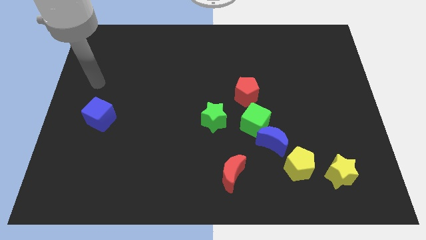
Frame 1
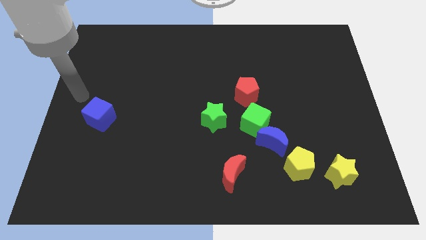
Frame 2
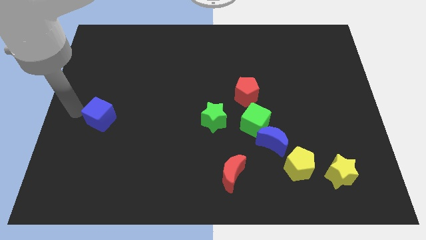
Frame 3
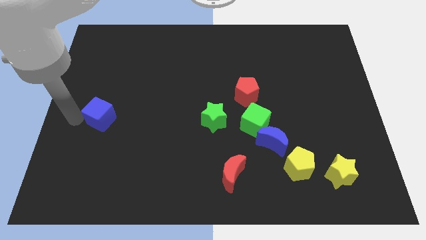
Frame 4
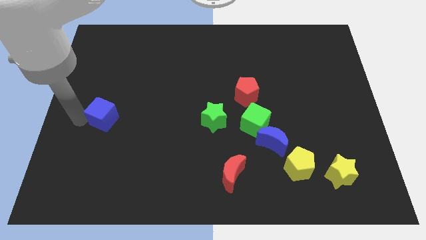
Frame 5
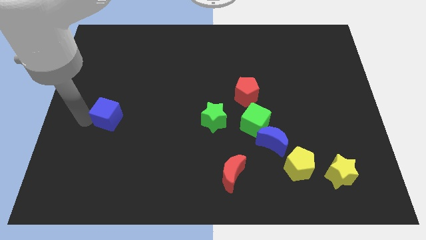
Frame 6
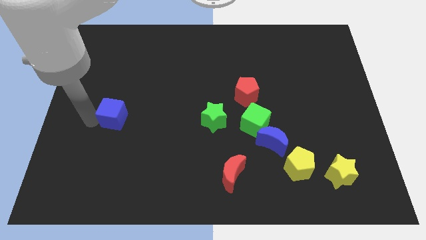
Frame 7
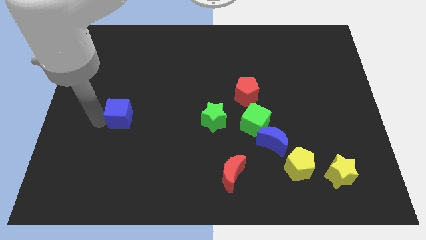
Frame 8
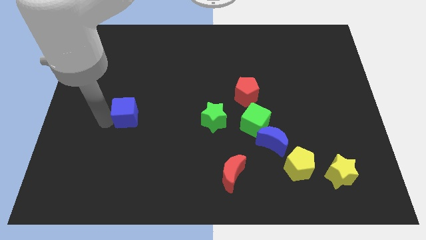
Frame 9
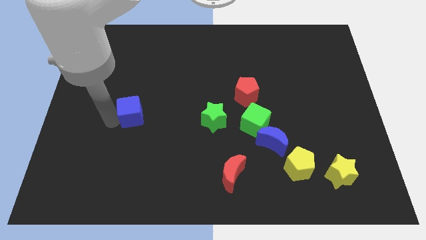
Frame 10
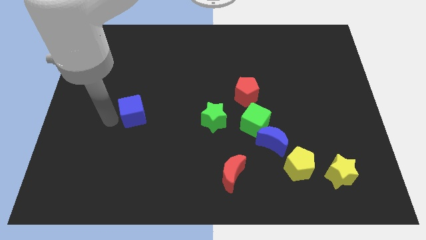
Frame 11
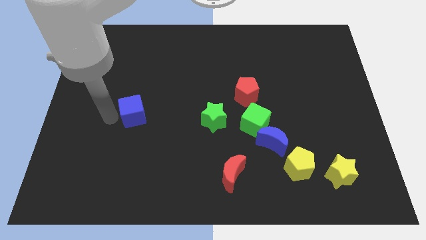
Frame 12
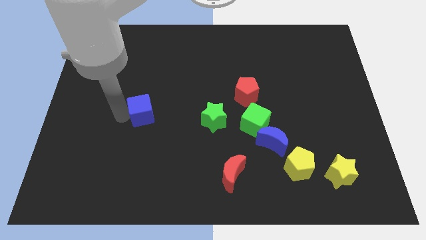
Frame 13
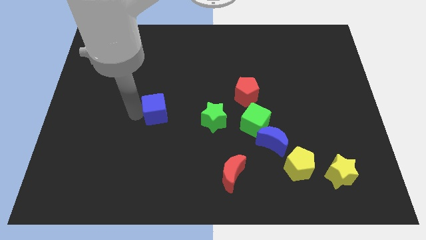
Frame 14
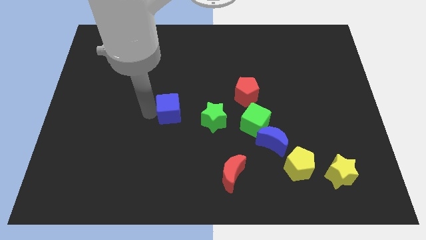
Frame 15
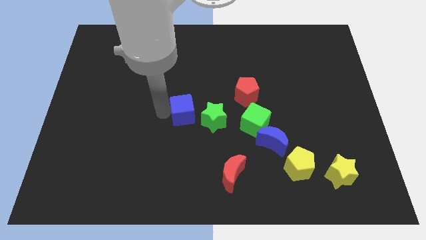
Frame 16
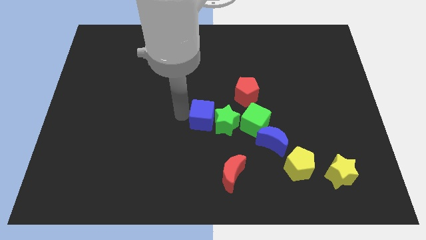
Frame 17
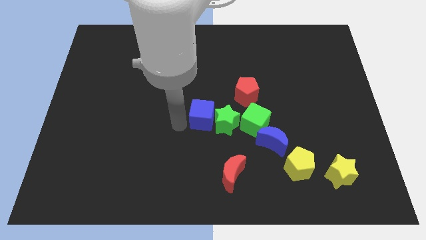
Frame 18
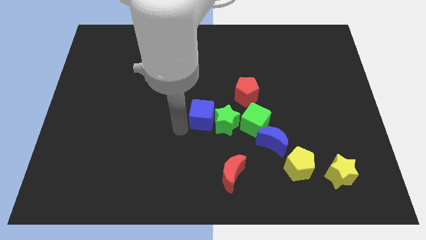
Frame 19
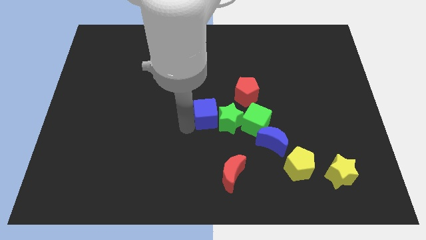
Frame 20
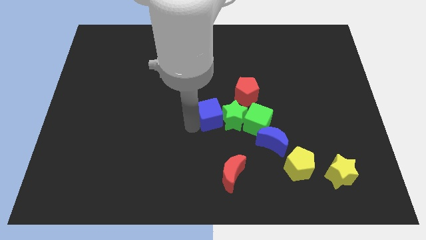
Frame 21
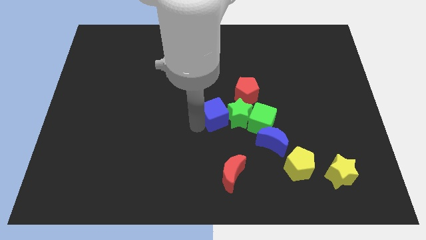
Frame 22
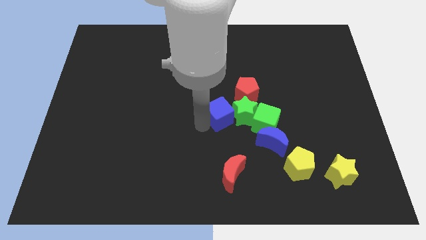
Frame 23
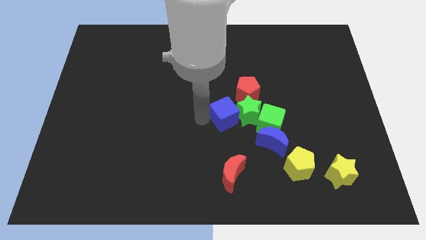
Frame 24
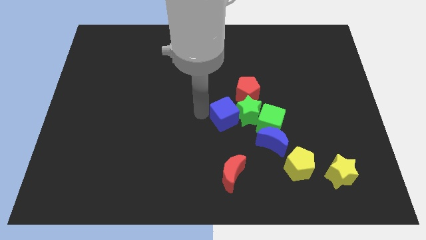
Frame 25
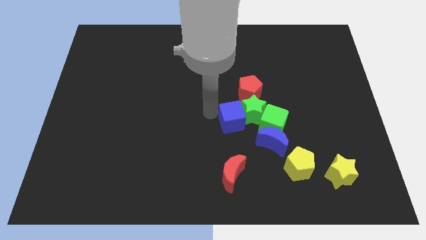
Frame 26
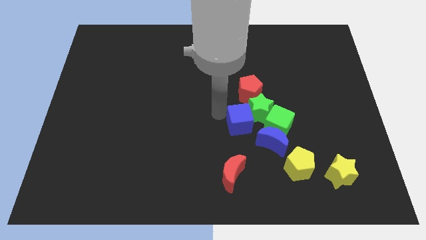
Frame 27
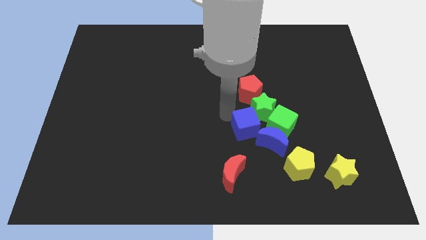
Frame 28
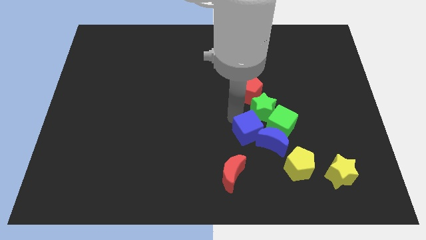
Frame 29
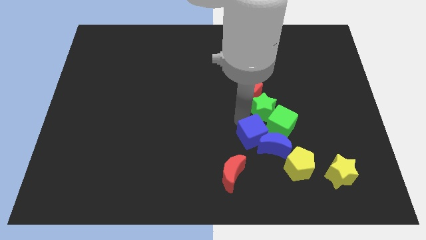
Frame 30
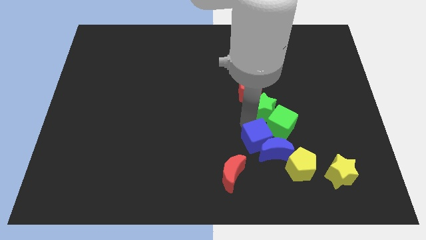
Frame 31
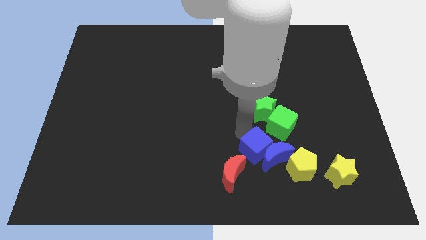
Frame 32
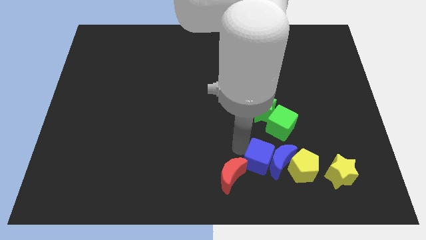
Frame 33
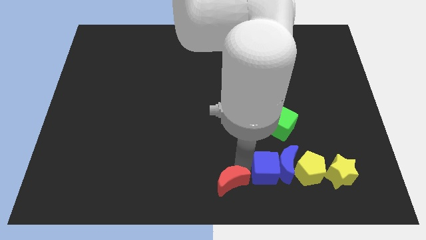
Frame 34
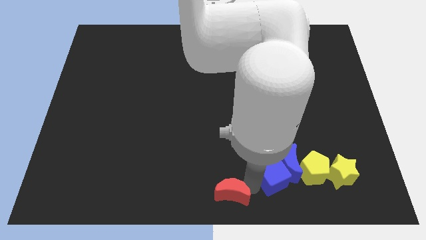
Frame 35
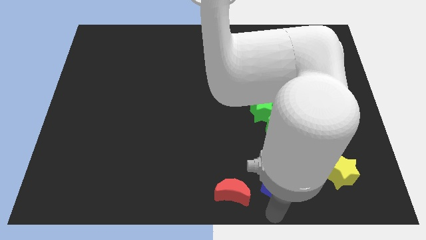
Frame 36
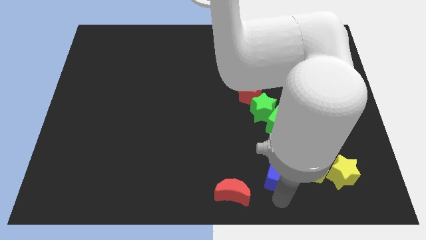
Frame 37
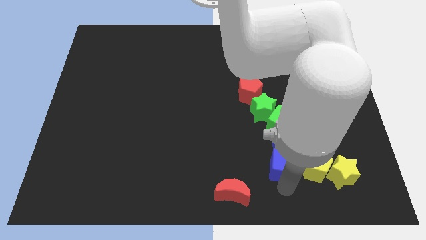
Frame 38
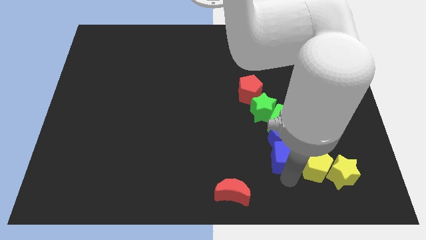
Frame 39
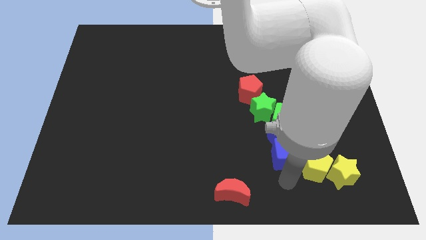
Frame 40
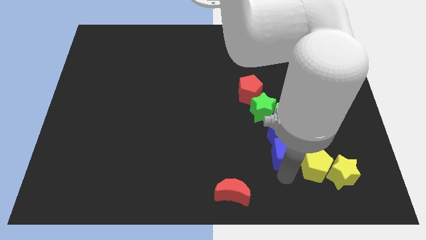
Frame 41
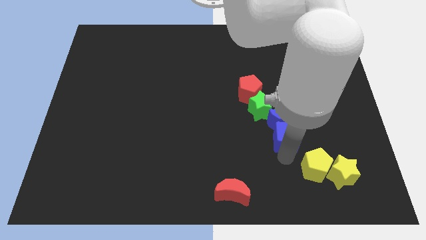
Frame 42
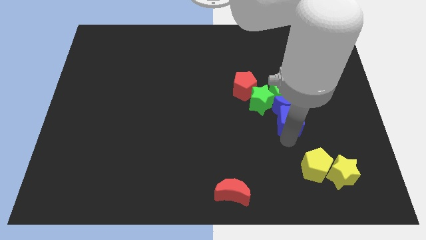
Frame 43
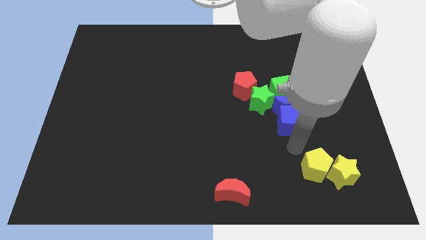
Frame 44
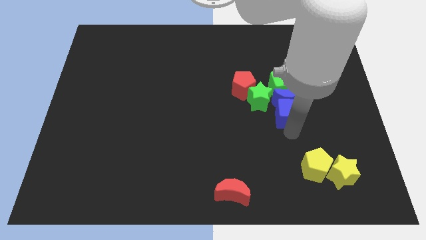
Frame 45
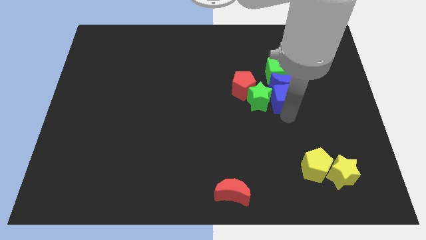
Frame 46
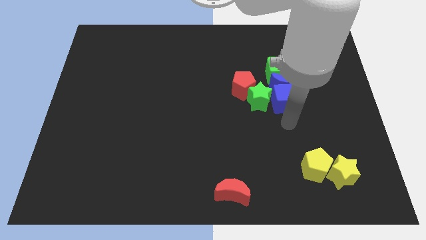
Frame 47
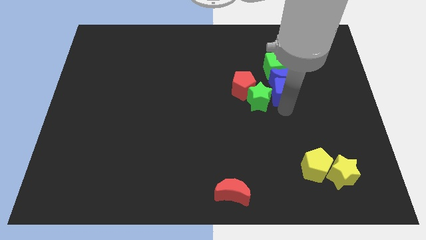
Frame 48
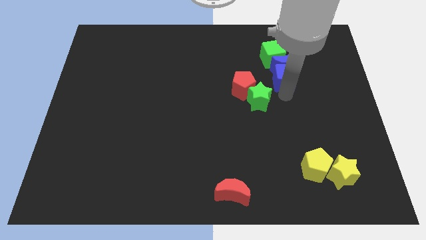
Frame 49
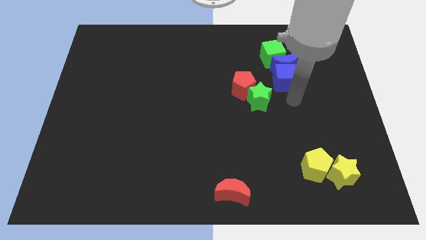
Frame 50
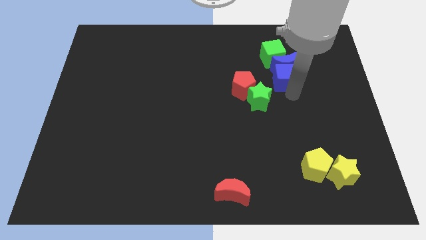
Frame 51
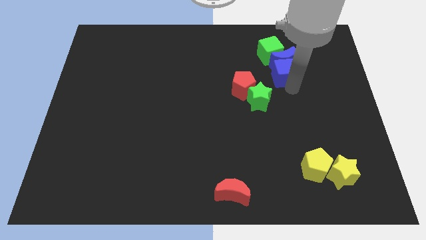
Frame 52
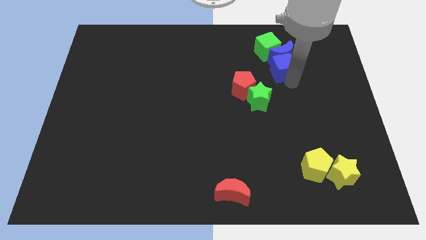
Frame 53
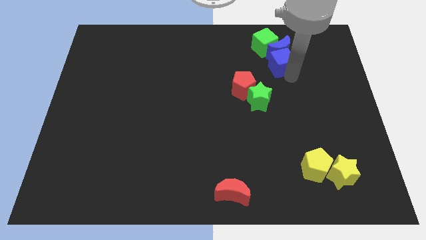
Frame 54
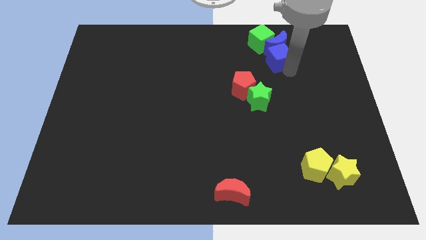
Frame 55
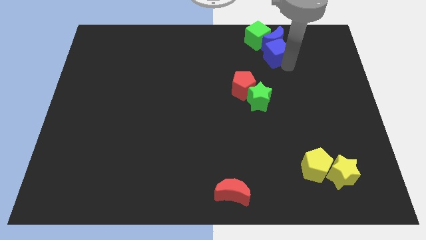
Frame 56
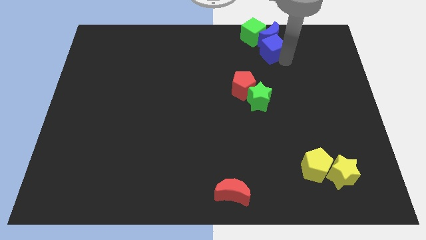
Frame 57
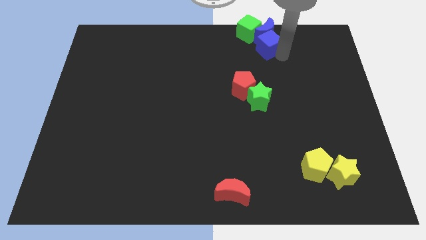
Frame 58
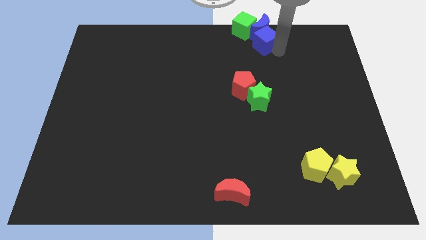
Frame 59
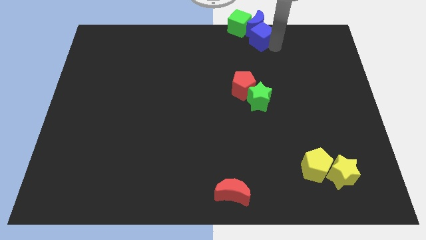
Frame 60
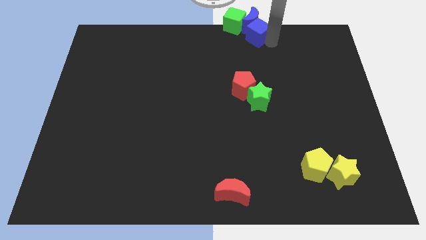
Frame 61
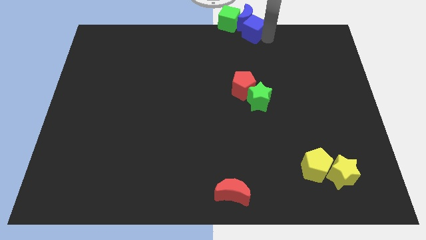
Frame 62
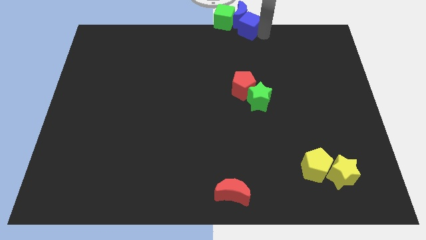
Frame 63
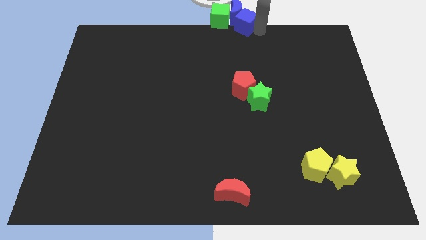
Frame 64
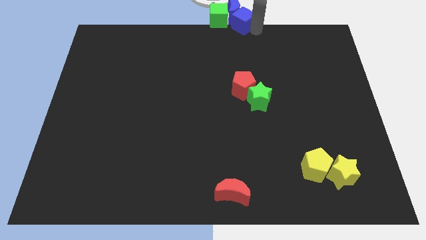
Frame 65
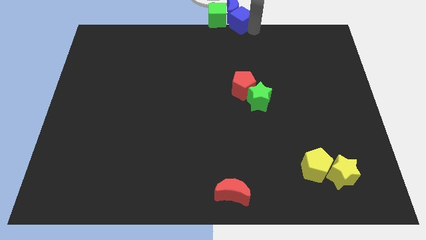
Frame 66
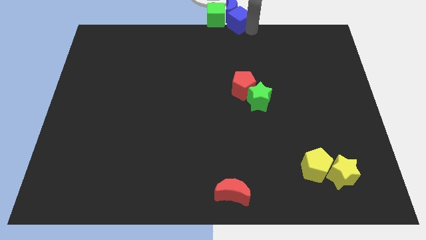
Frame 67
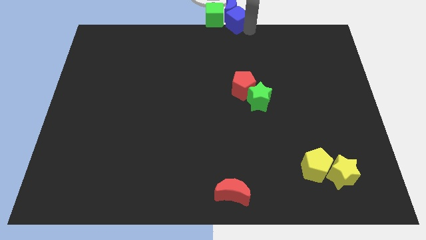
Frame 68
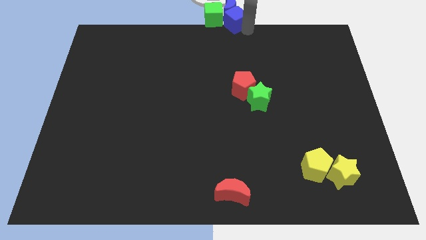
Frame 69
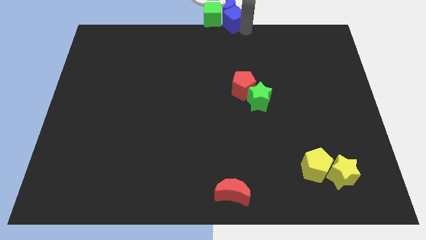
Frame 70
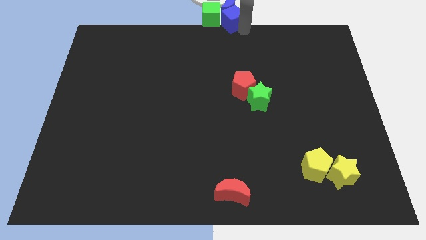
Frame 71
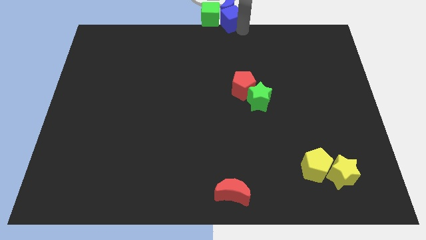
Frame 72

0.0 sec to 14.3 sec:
move the blue cube towards the green cube
